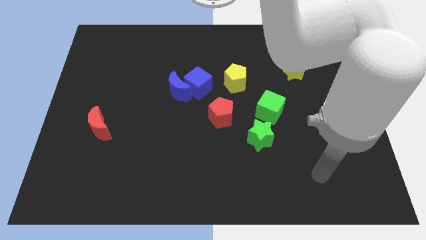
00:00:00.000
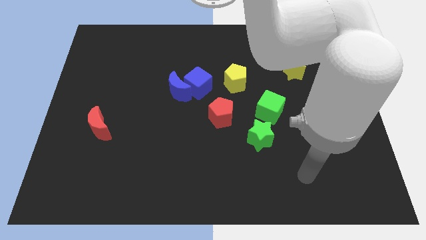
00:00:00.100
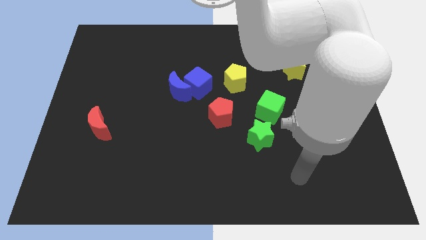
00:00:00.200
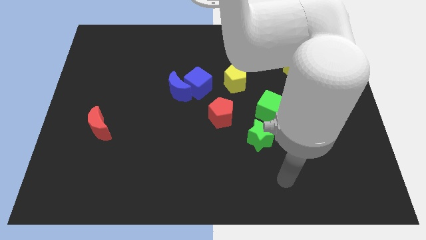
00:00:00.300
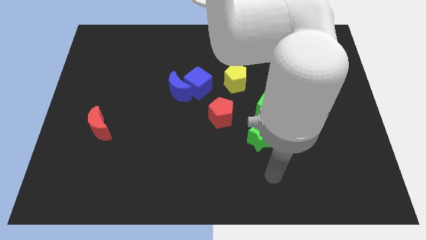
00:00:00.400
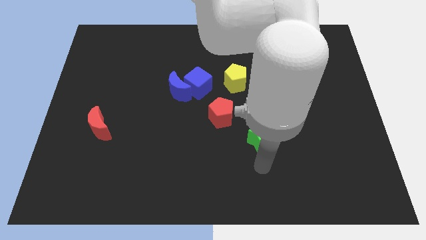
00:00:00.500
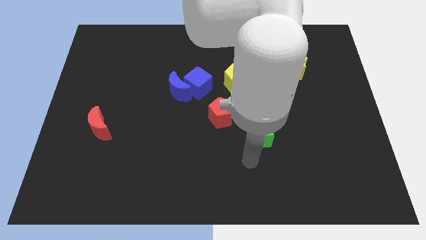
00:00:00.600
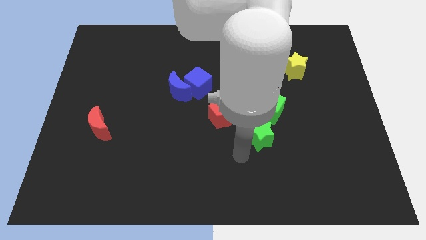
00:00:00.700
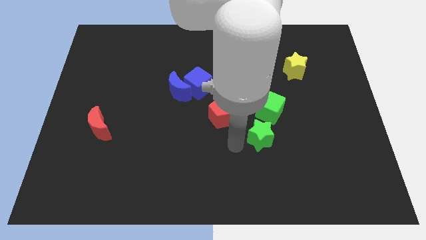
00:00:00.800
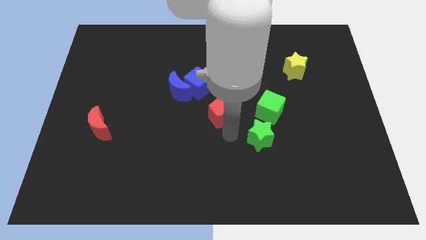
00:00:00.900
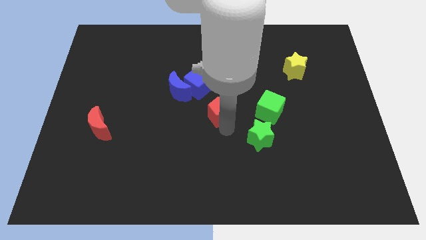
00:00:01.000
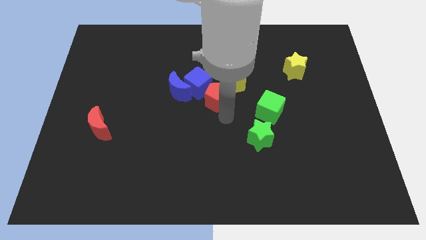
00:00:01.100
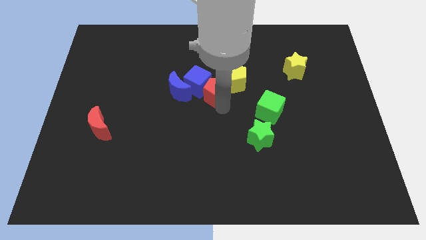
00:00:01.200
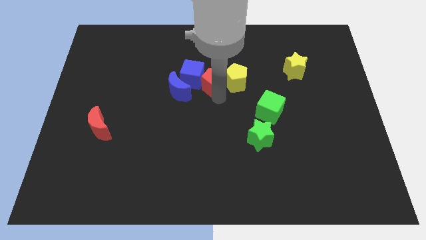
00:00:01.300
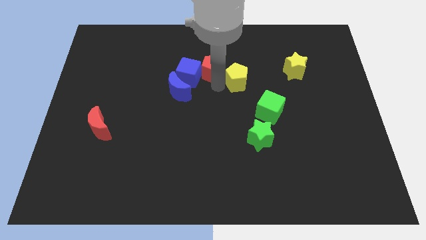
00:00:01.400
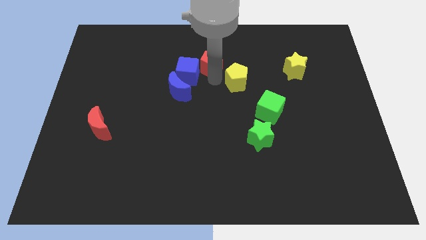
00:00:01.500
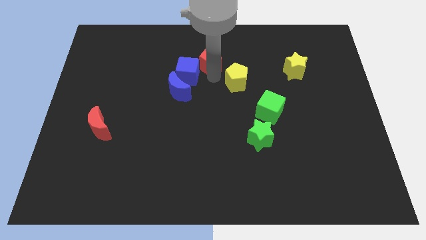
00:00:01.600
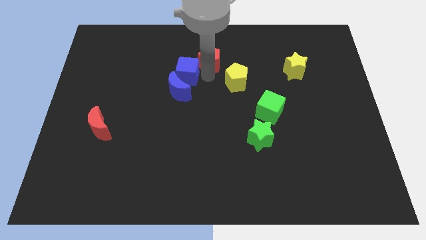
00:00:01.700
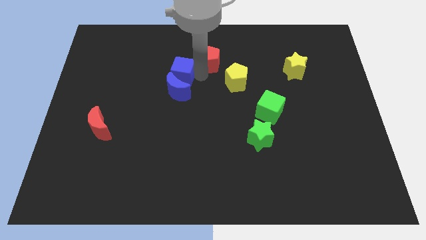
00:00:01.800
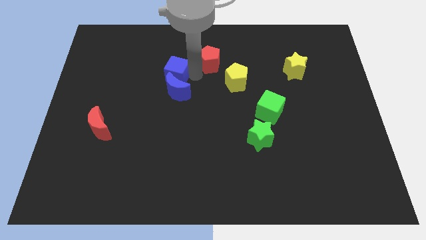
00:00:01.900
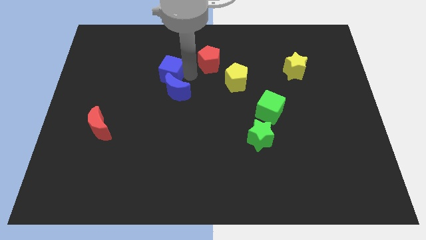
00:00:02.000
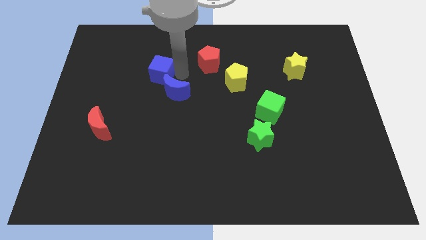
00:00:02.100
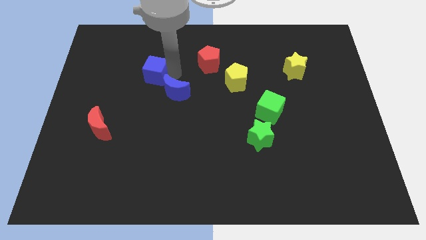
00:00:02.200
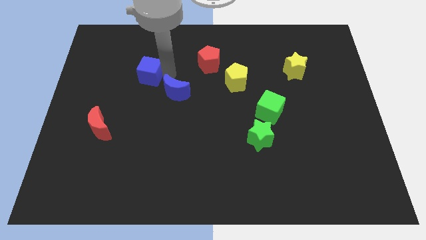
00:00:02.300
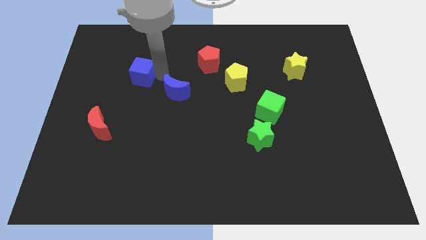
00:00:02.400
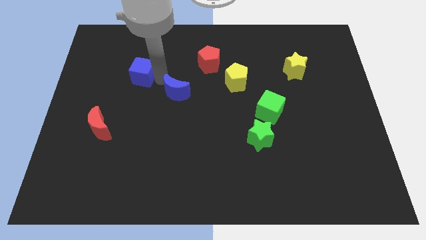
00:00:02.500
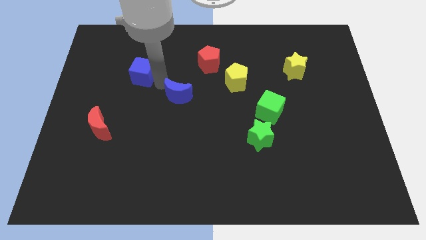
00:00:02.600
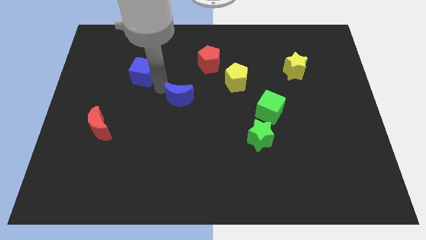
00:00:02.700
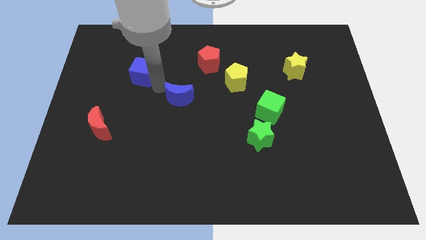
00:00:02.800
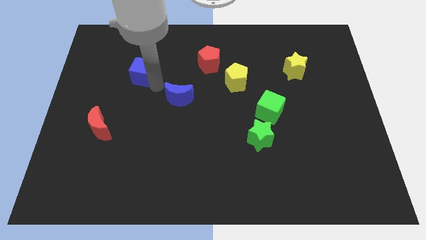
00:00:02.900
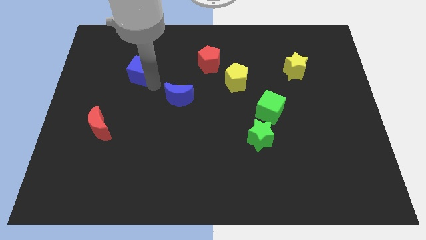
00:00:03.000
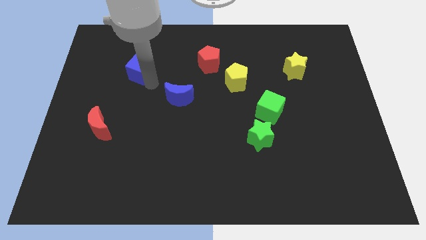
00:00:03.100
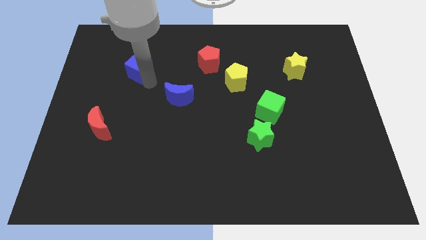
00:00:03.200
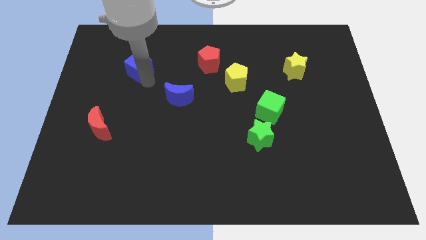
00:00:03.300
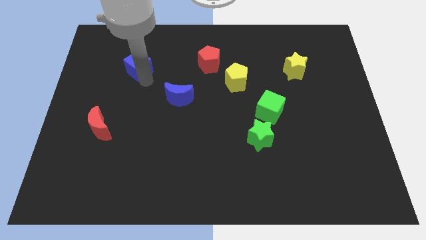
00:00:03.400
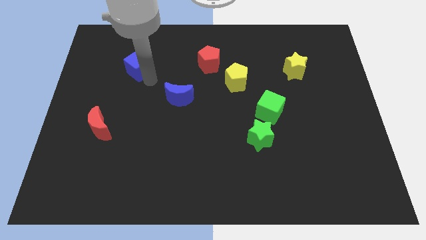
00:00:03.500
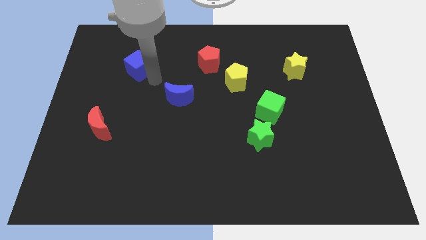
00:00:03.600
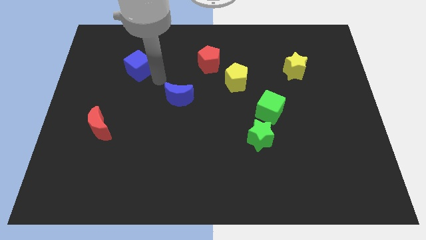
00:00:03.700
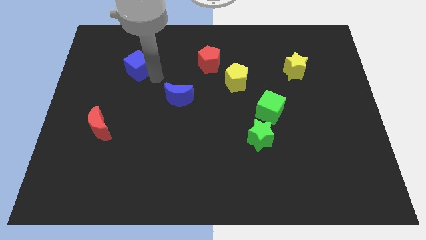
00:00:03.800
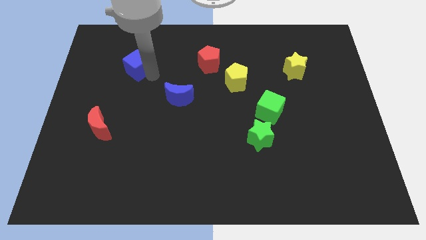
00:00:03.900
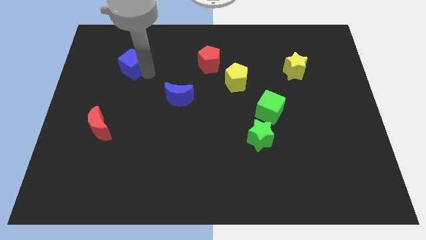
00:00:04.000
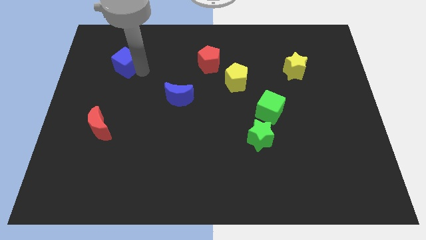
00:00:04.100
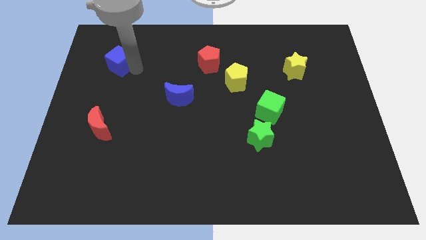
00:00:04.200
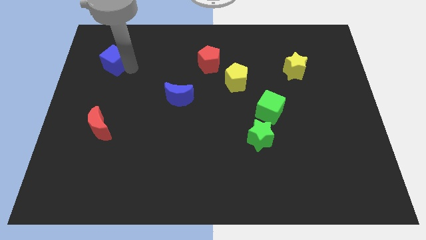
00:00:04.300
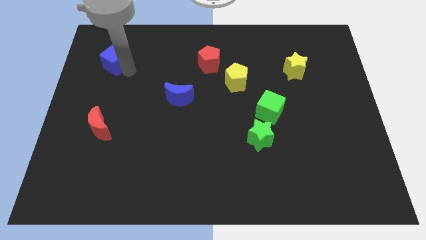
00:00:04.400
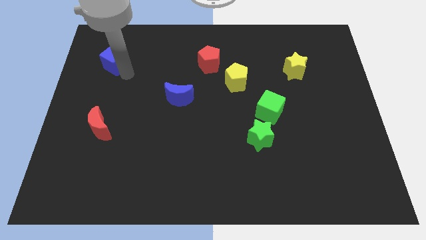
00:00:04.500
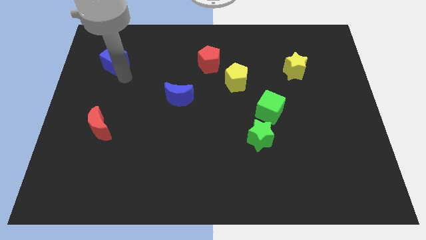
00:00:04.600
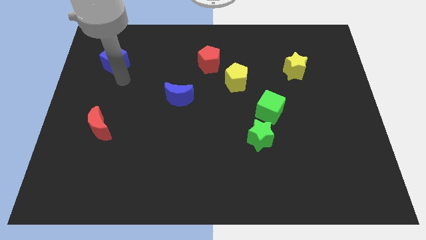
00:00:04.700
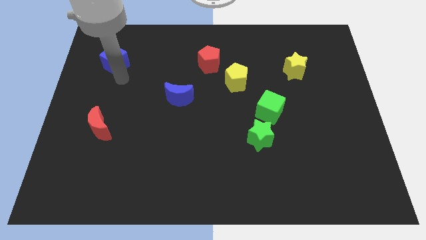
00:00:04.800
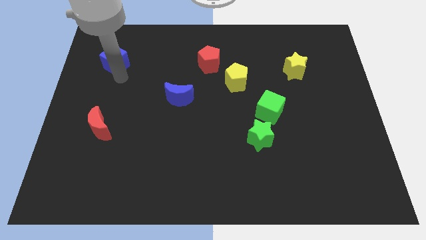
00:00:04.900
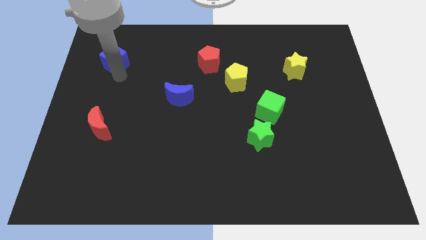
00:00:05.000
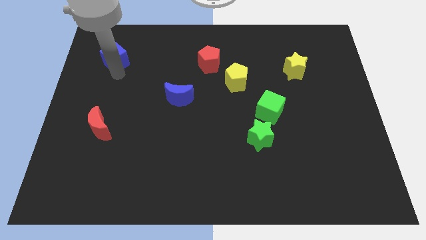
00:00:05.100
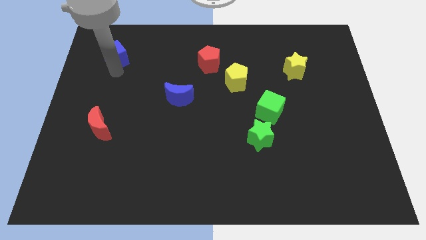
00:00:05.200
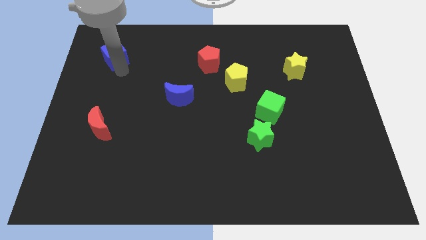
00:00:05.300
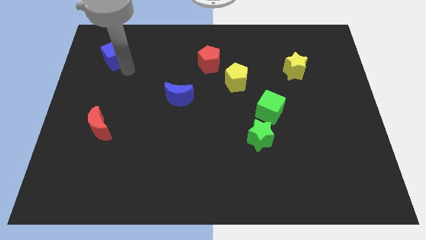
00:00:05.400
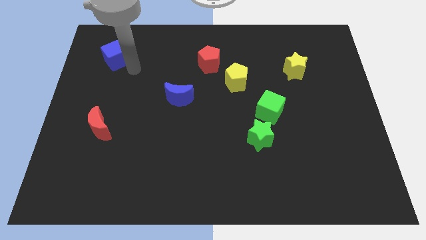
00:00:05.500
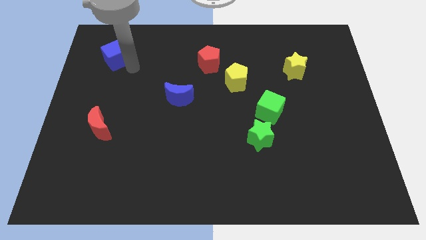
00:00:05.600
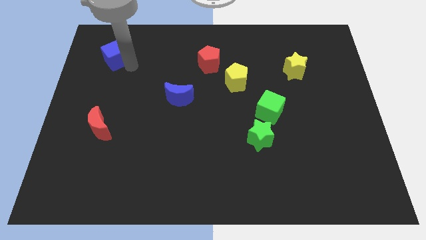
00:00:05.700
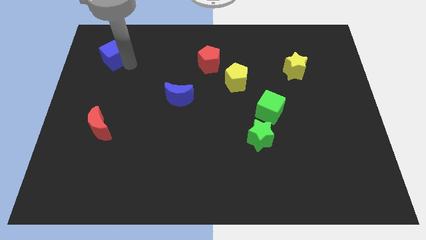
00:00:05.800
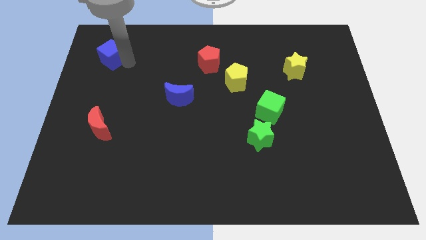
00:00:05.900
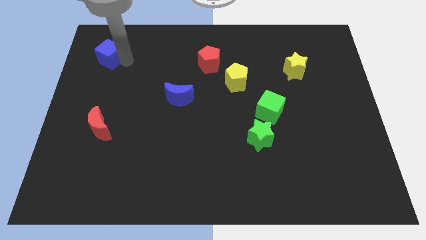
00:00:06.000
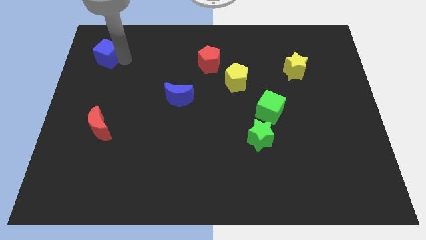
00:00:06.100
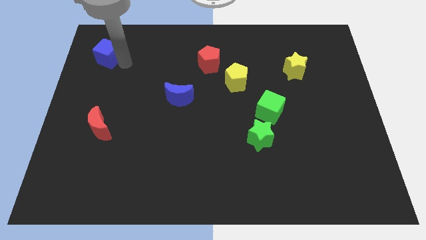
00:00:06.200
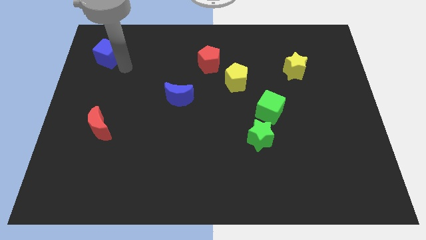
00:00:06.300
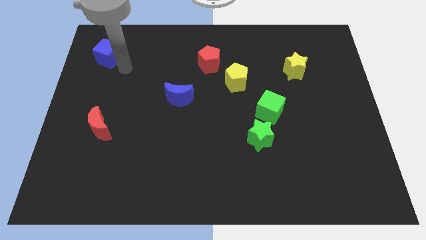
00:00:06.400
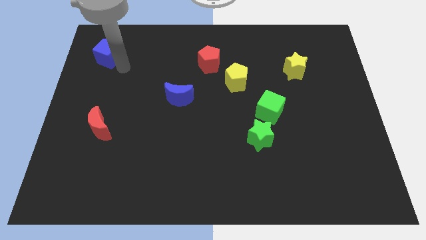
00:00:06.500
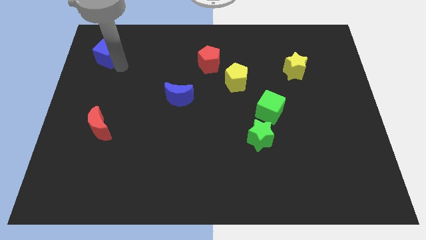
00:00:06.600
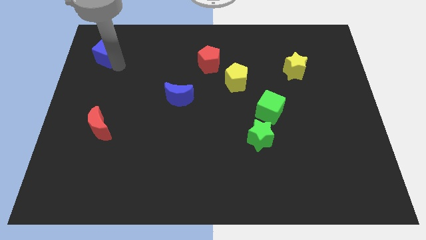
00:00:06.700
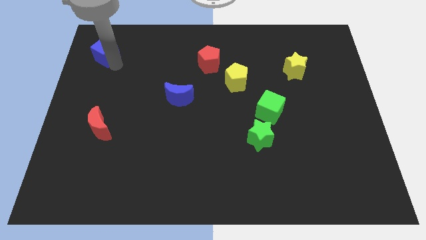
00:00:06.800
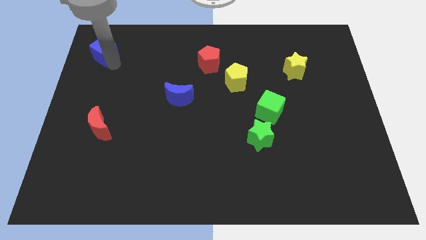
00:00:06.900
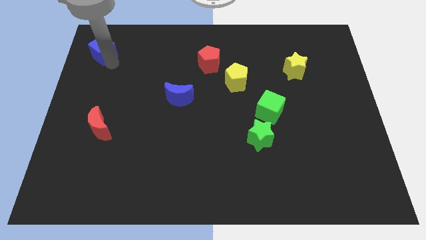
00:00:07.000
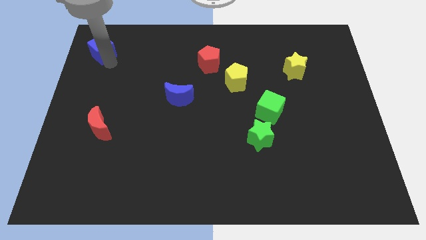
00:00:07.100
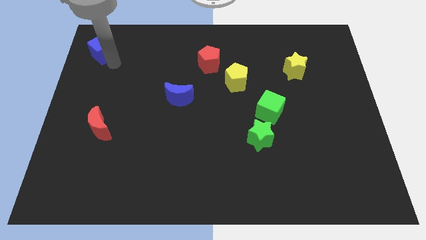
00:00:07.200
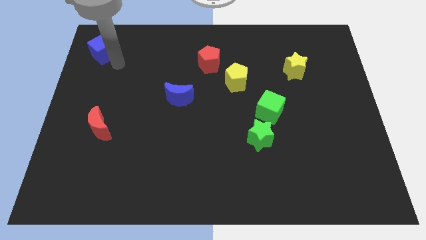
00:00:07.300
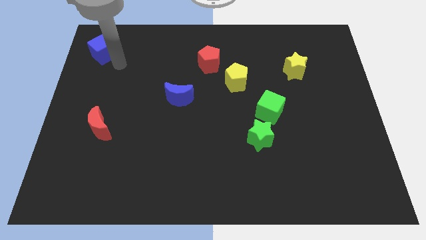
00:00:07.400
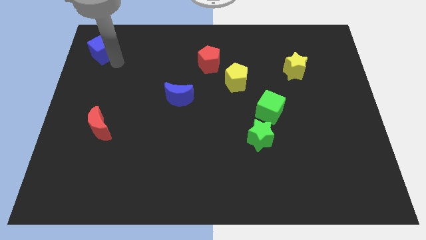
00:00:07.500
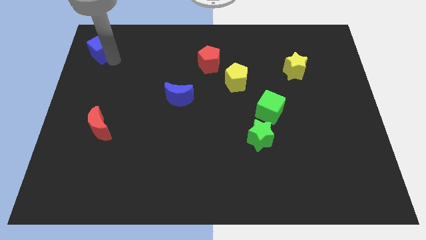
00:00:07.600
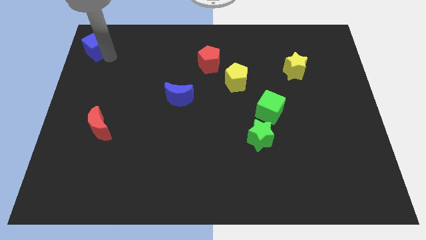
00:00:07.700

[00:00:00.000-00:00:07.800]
slide the blue cube to the top left
